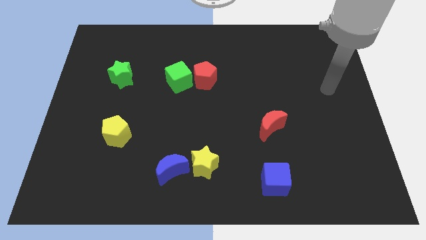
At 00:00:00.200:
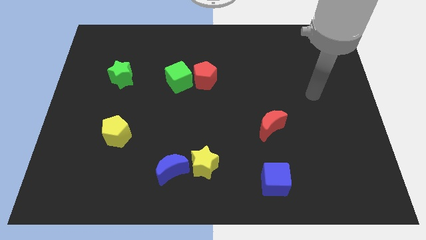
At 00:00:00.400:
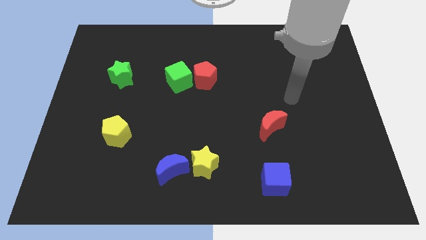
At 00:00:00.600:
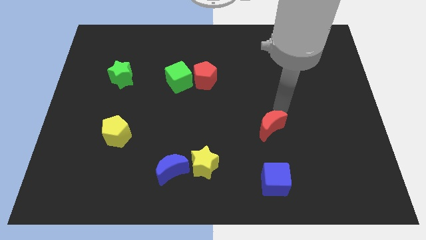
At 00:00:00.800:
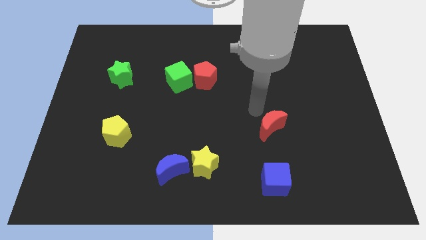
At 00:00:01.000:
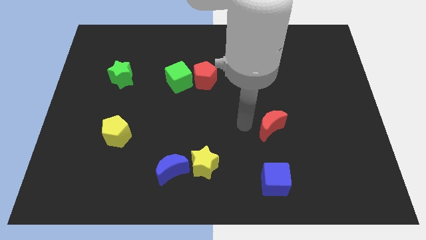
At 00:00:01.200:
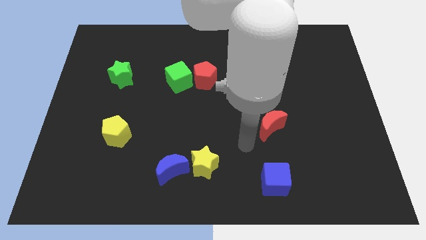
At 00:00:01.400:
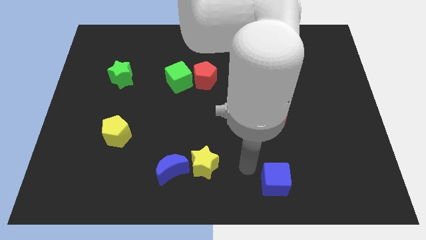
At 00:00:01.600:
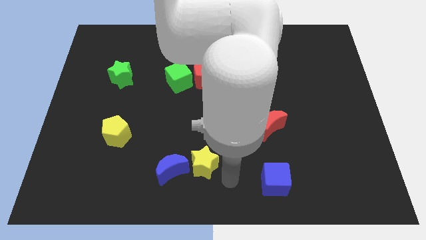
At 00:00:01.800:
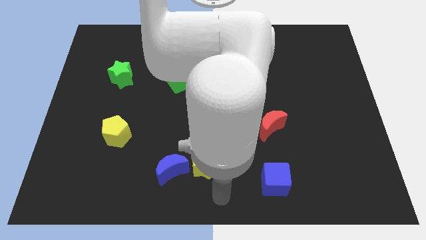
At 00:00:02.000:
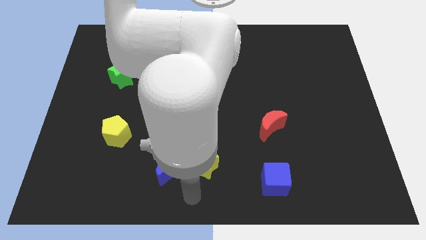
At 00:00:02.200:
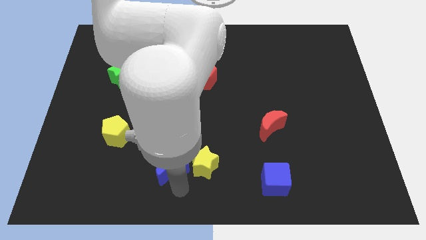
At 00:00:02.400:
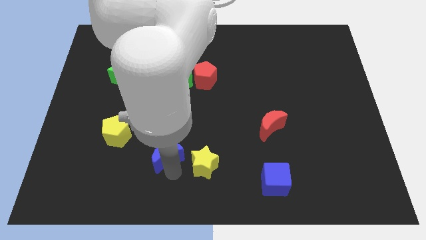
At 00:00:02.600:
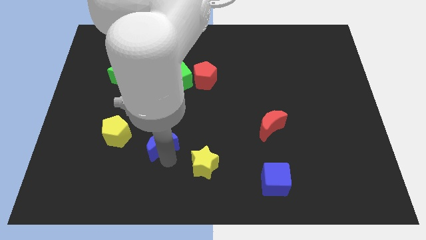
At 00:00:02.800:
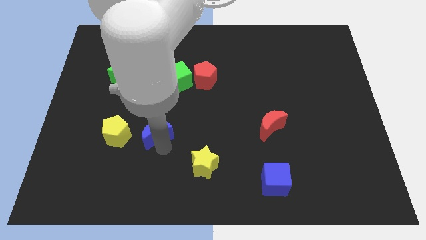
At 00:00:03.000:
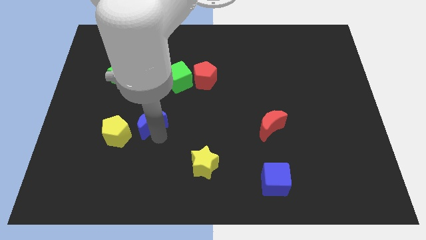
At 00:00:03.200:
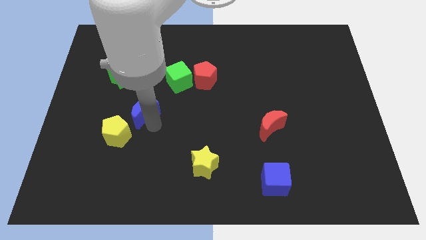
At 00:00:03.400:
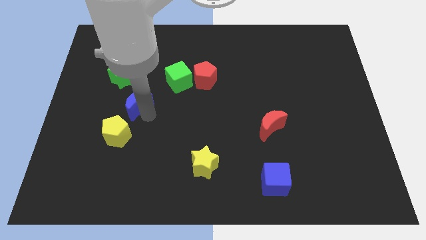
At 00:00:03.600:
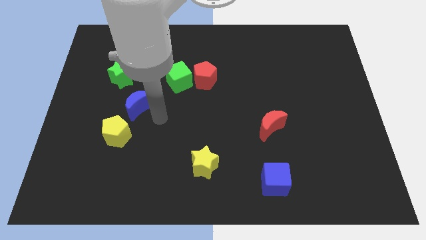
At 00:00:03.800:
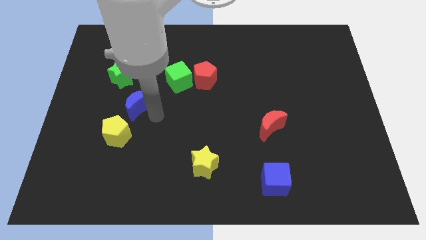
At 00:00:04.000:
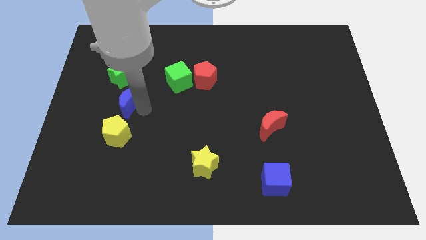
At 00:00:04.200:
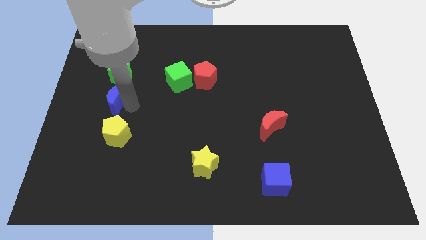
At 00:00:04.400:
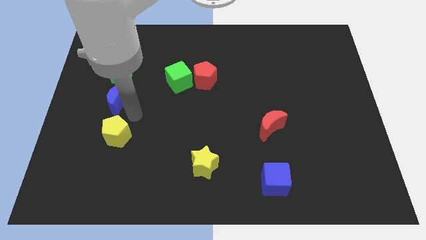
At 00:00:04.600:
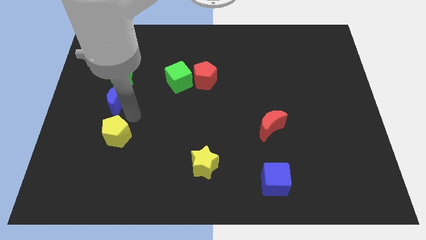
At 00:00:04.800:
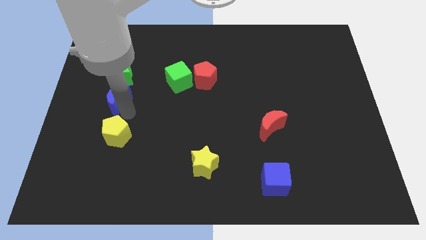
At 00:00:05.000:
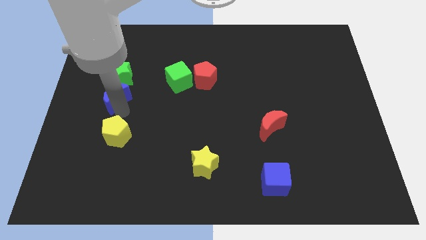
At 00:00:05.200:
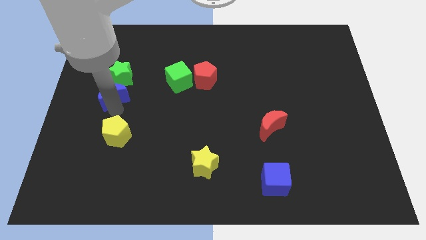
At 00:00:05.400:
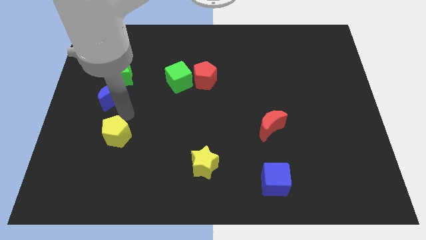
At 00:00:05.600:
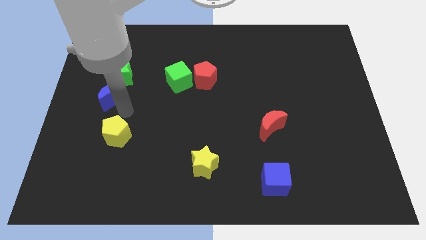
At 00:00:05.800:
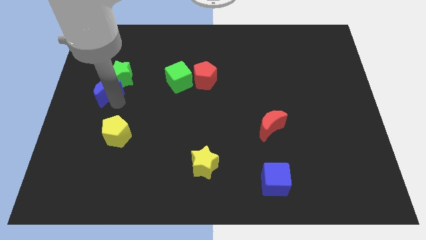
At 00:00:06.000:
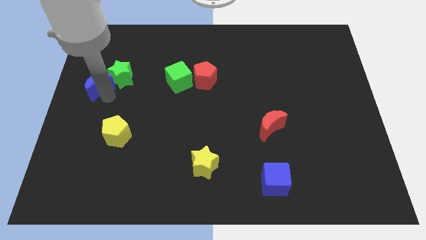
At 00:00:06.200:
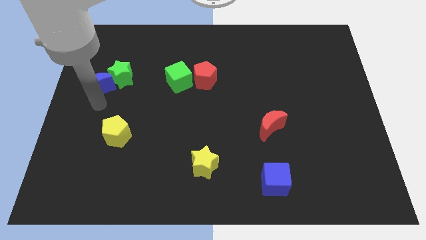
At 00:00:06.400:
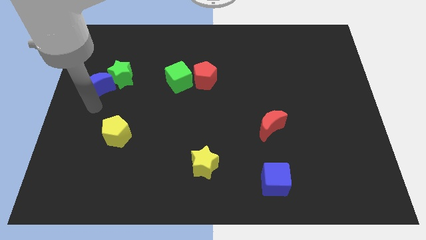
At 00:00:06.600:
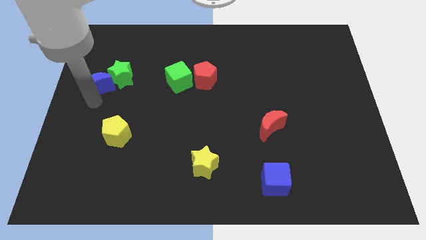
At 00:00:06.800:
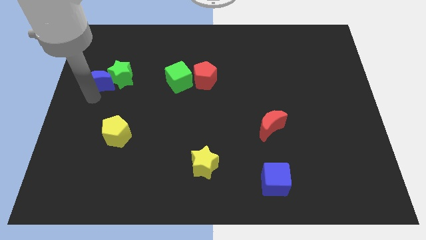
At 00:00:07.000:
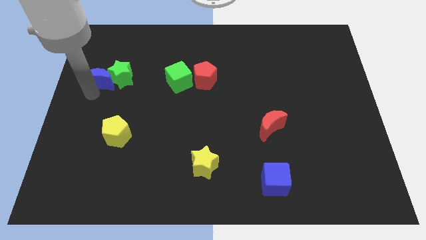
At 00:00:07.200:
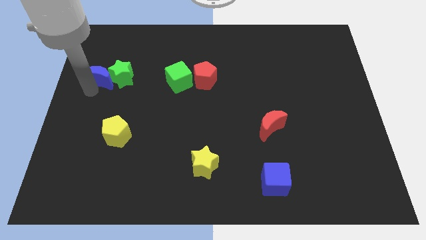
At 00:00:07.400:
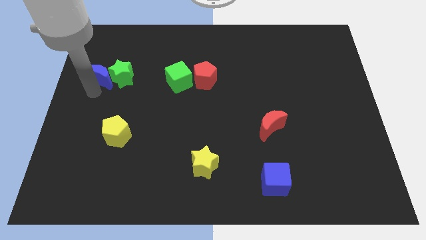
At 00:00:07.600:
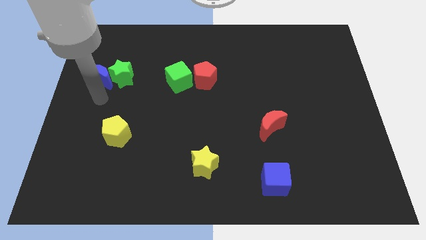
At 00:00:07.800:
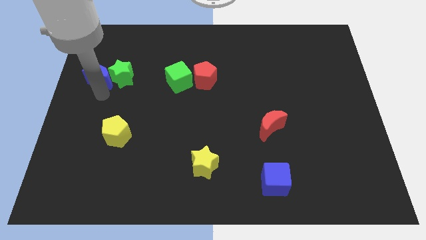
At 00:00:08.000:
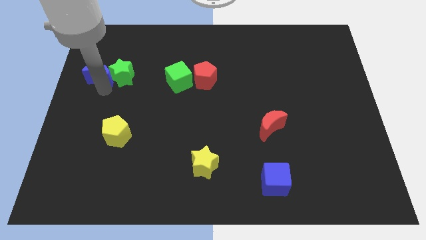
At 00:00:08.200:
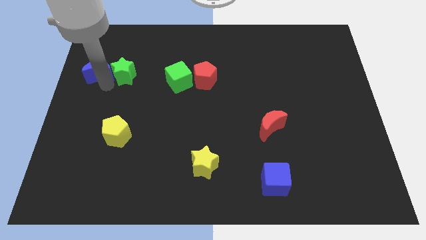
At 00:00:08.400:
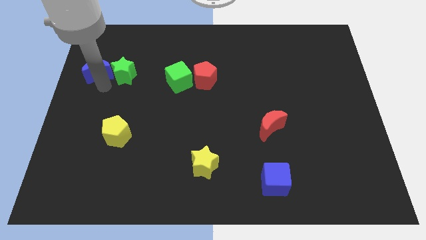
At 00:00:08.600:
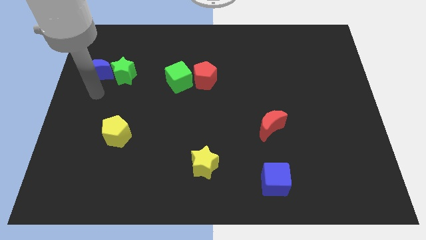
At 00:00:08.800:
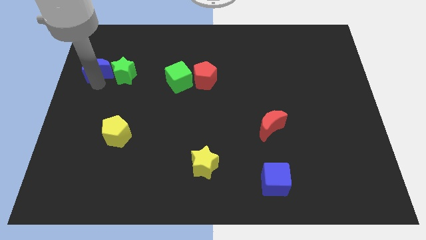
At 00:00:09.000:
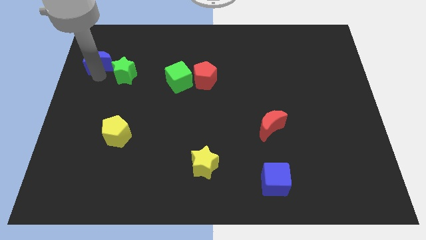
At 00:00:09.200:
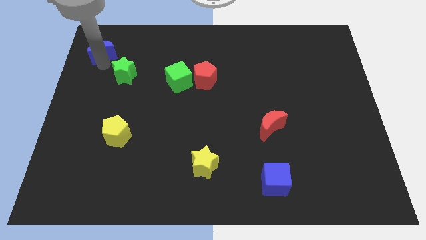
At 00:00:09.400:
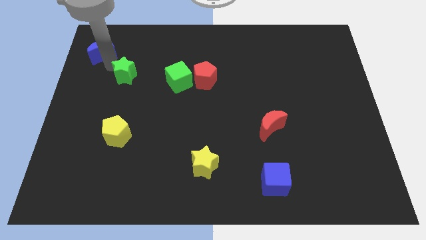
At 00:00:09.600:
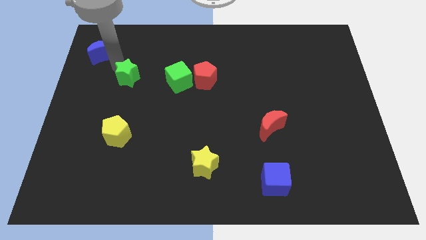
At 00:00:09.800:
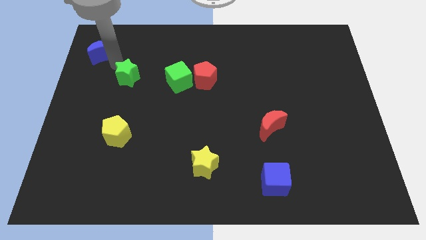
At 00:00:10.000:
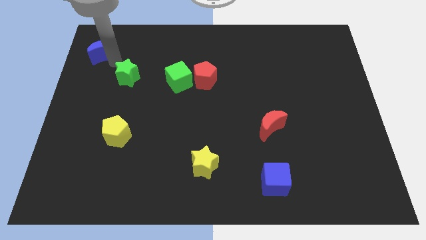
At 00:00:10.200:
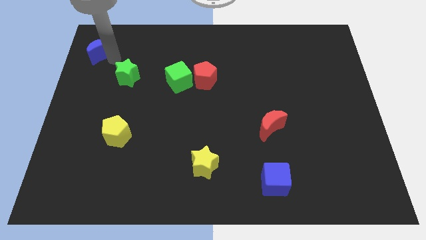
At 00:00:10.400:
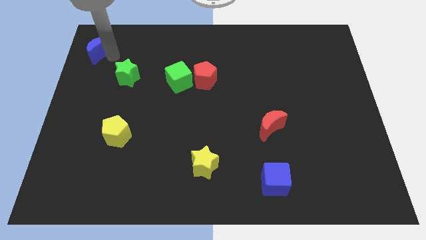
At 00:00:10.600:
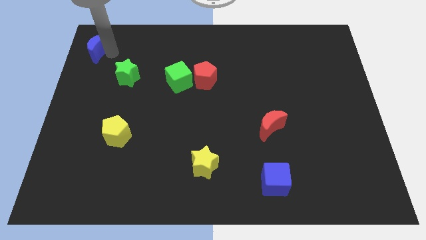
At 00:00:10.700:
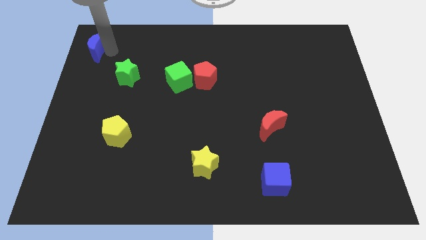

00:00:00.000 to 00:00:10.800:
slide the blue moon to the top left
